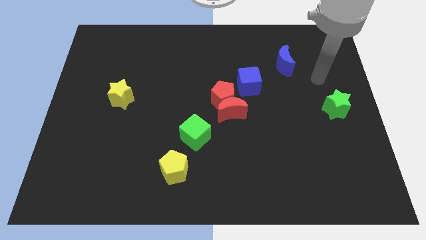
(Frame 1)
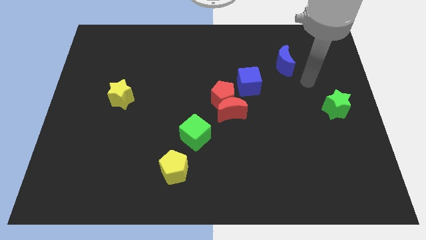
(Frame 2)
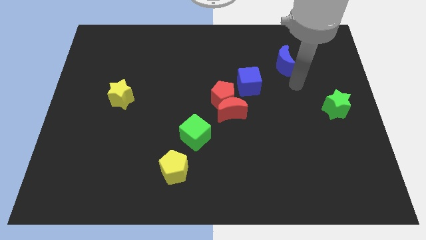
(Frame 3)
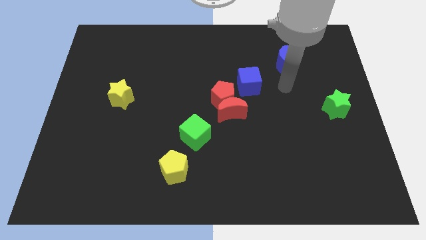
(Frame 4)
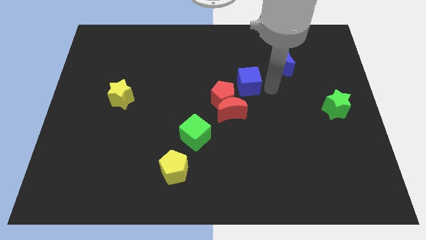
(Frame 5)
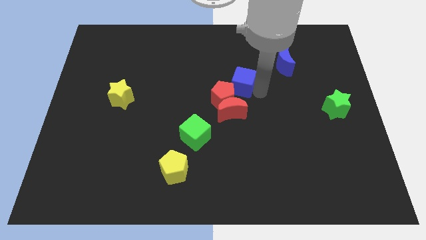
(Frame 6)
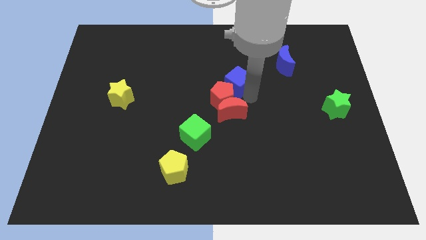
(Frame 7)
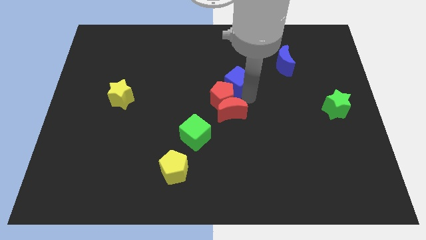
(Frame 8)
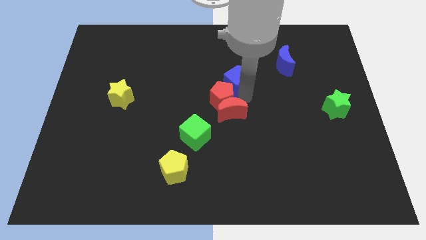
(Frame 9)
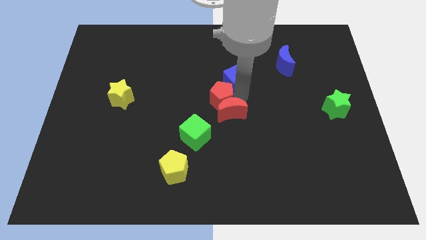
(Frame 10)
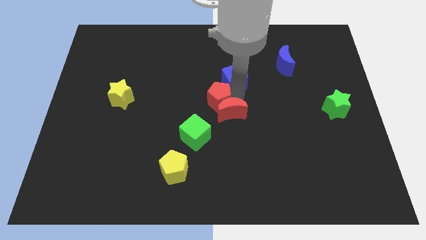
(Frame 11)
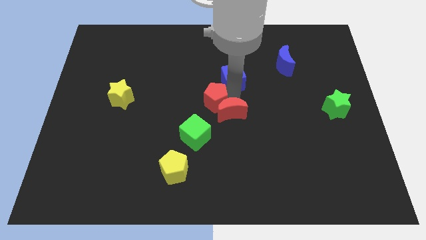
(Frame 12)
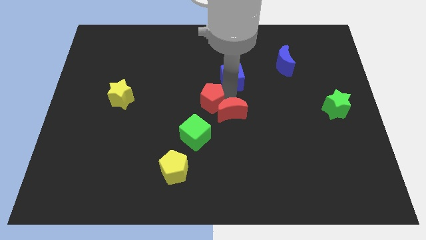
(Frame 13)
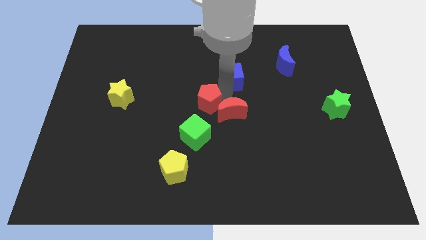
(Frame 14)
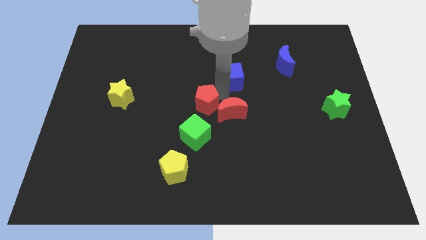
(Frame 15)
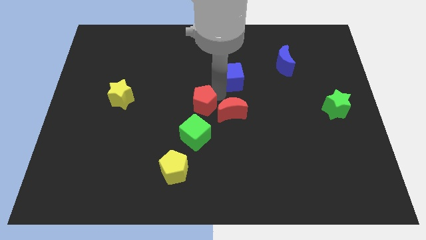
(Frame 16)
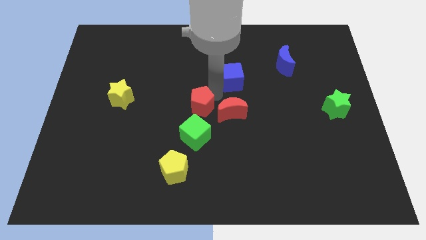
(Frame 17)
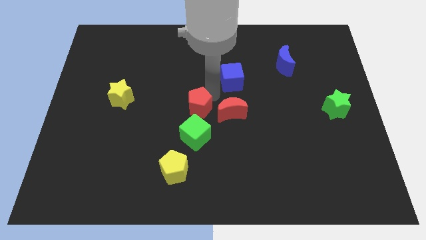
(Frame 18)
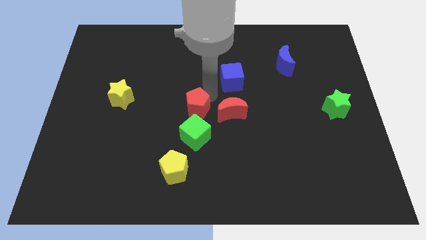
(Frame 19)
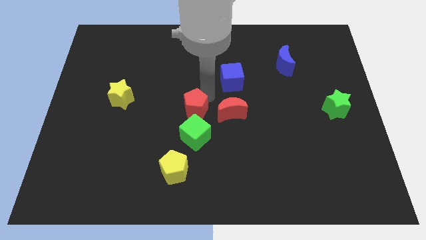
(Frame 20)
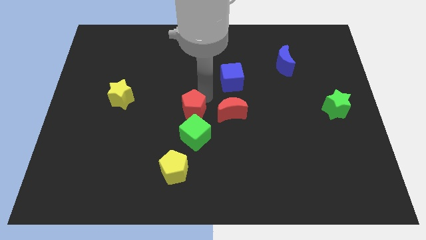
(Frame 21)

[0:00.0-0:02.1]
pull the red pentagon apart from the red moon and blue cube

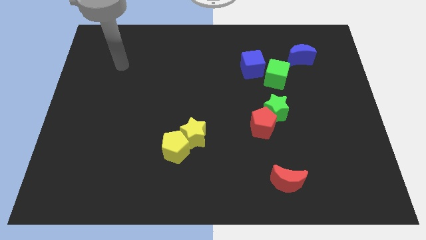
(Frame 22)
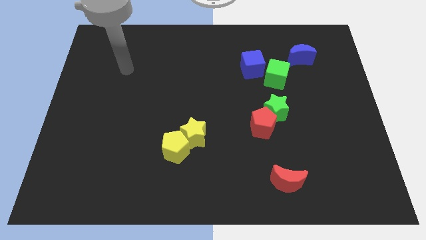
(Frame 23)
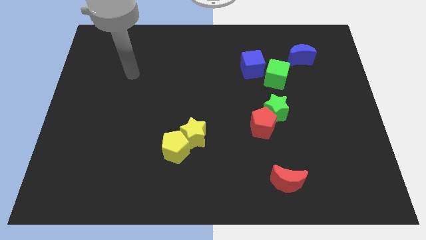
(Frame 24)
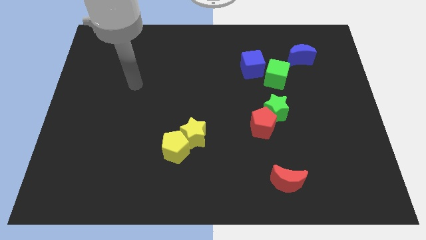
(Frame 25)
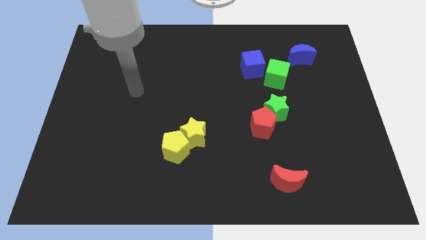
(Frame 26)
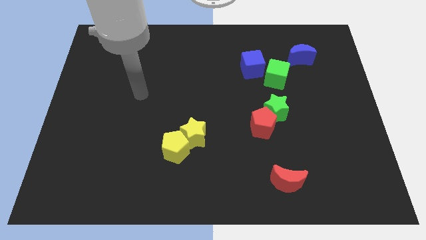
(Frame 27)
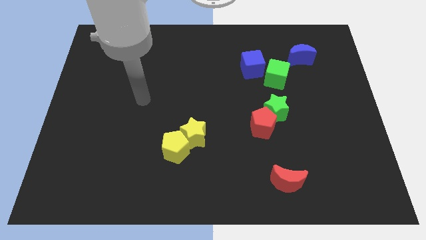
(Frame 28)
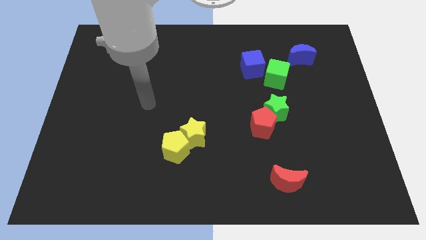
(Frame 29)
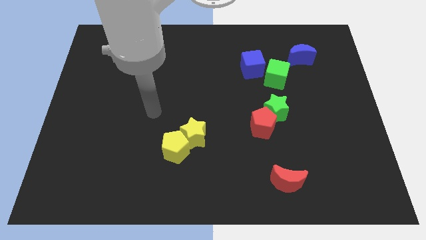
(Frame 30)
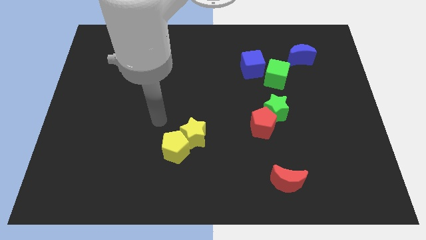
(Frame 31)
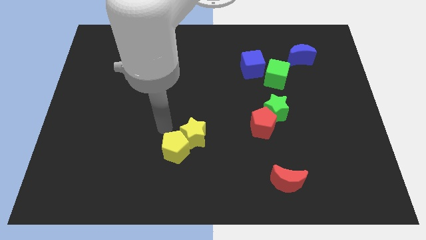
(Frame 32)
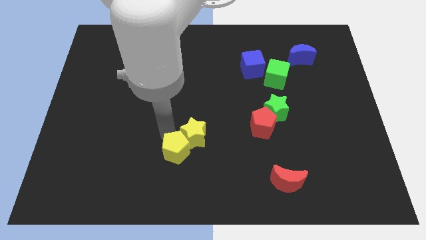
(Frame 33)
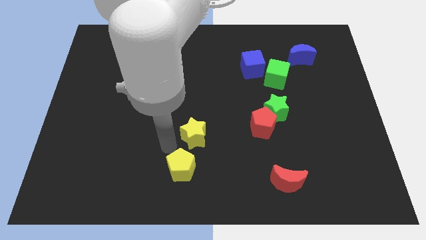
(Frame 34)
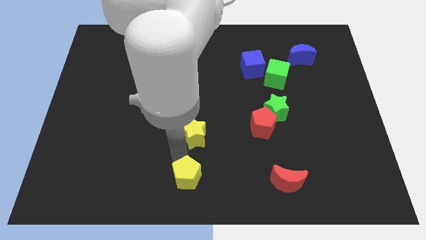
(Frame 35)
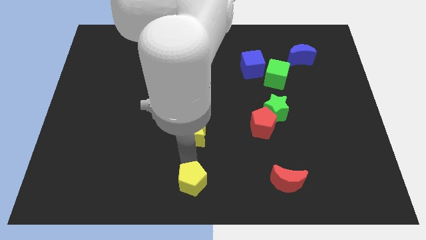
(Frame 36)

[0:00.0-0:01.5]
move the yellow star away from the yellow pentagon

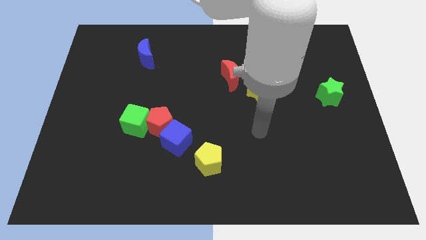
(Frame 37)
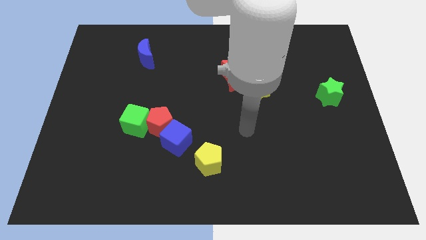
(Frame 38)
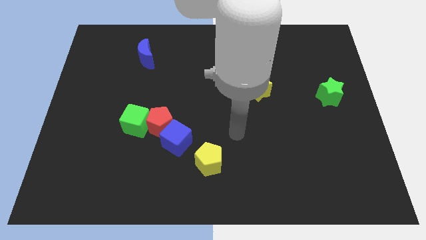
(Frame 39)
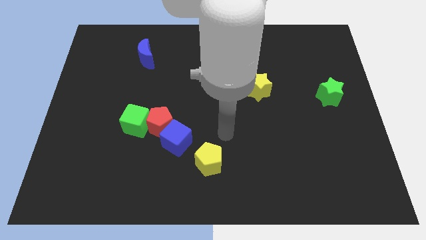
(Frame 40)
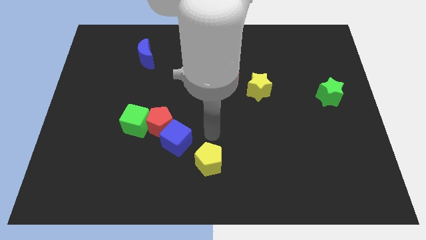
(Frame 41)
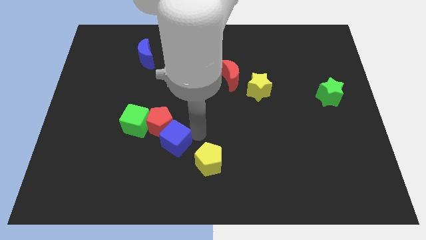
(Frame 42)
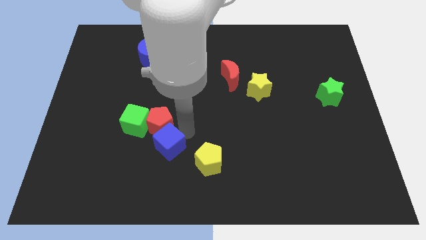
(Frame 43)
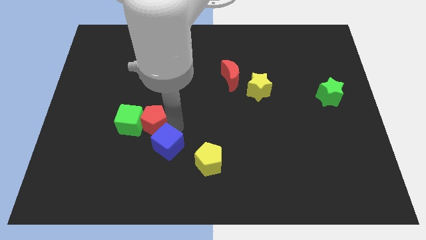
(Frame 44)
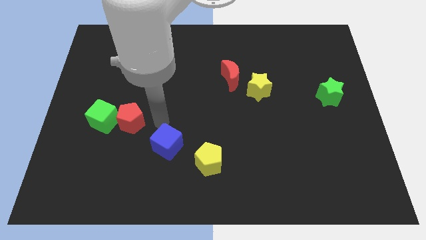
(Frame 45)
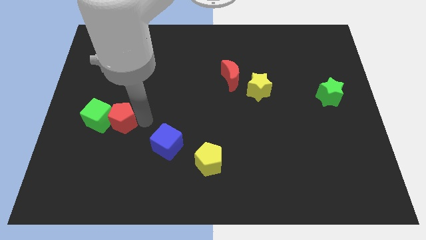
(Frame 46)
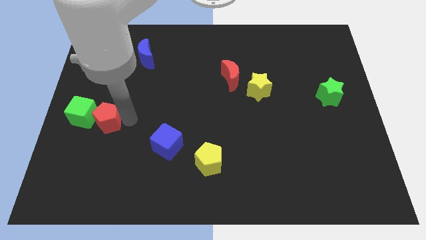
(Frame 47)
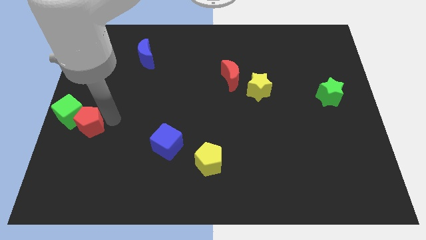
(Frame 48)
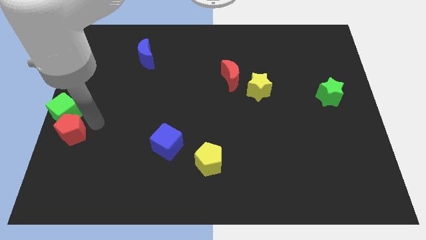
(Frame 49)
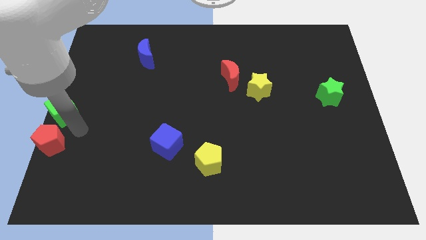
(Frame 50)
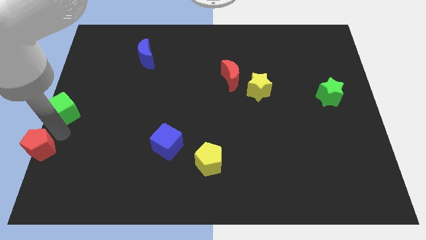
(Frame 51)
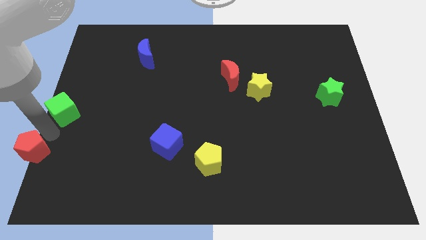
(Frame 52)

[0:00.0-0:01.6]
pull the green cube apart from the red pentagon

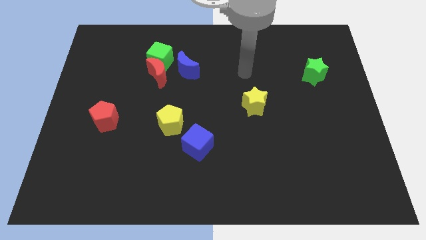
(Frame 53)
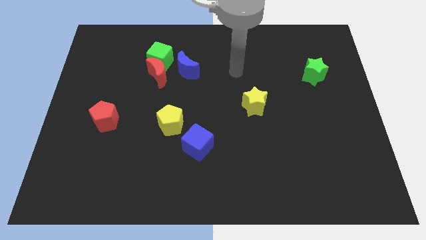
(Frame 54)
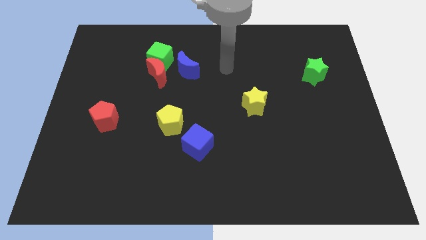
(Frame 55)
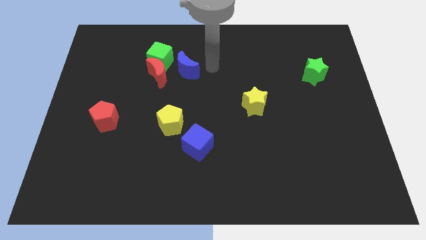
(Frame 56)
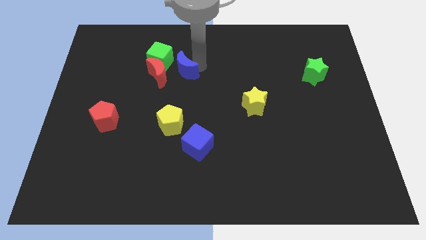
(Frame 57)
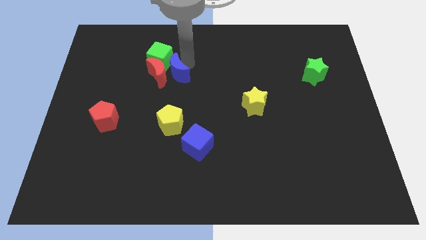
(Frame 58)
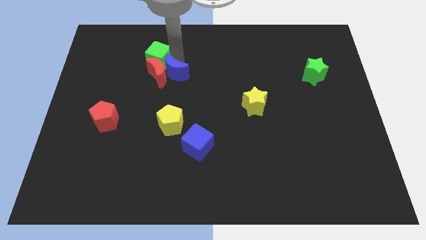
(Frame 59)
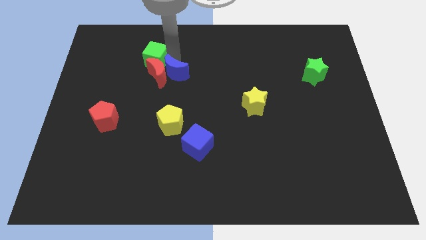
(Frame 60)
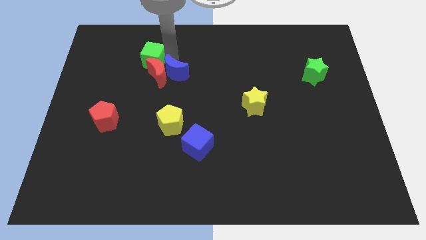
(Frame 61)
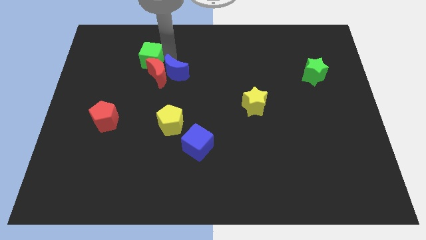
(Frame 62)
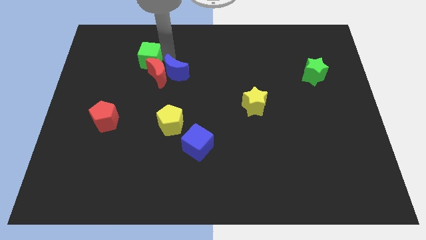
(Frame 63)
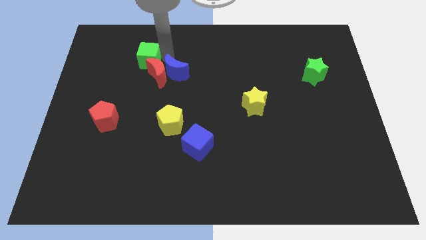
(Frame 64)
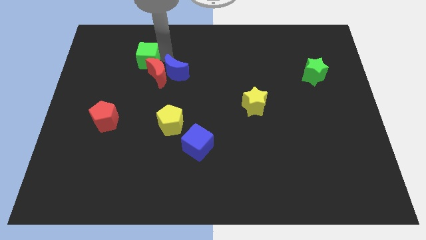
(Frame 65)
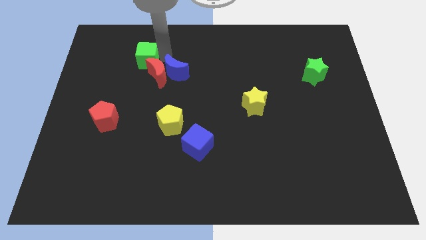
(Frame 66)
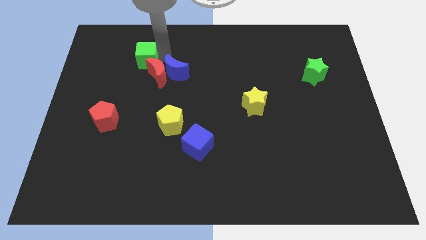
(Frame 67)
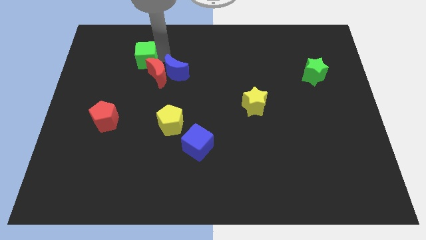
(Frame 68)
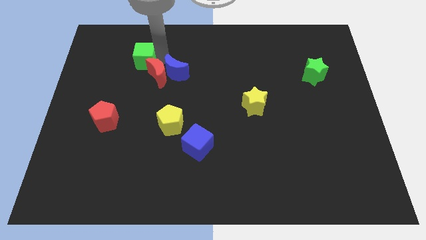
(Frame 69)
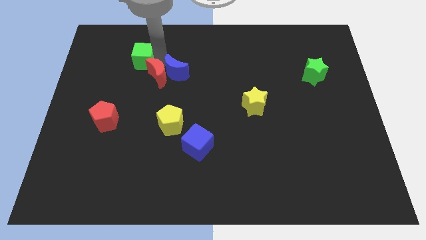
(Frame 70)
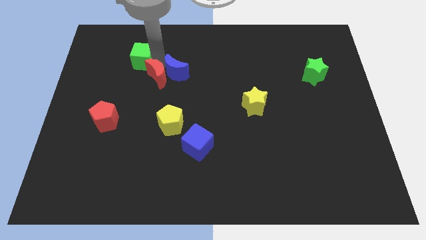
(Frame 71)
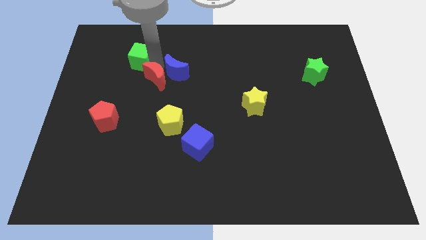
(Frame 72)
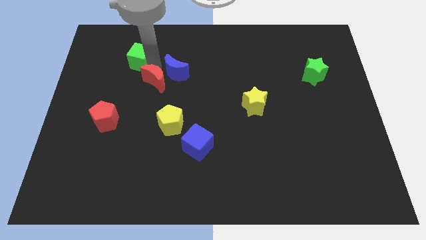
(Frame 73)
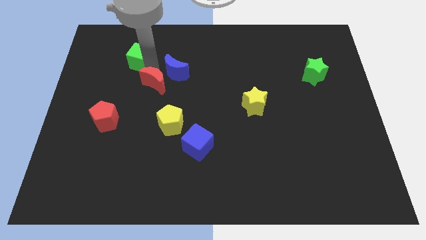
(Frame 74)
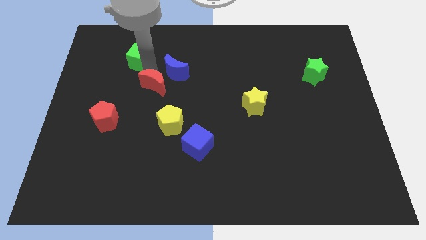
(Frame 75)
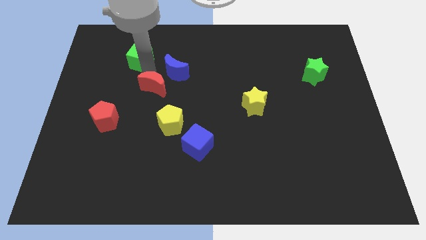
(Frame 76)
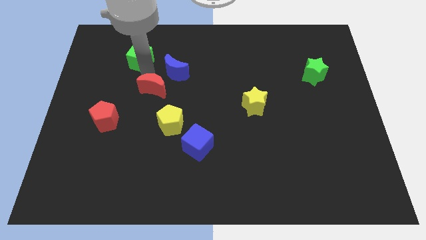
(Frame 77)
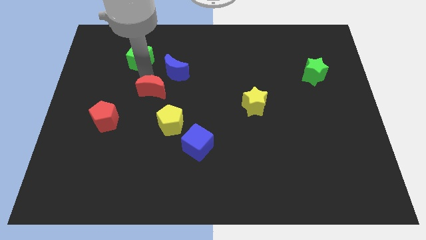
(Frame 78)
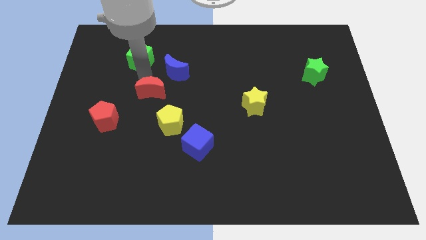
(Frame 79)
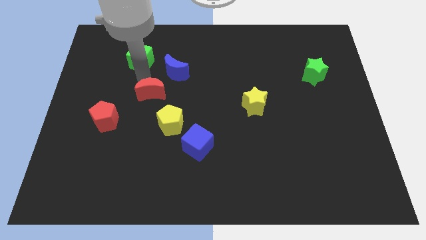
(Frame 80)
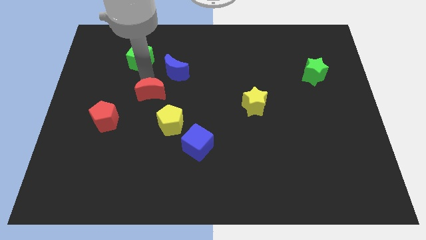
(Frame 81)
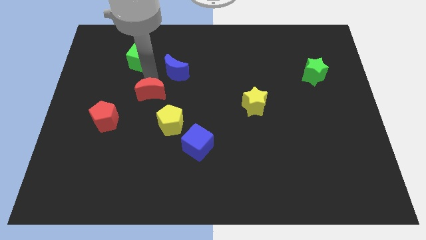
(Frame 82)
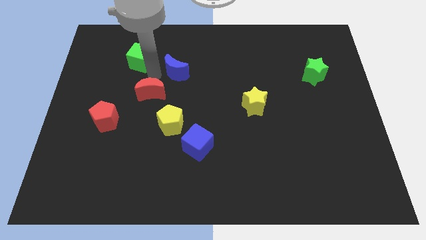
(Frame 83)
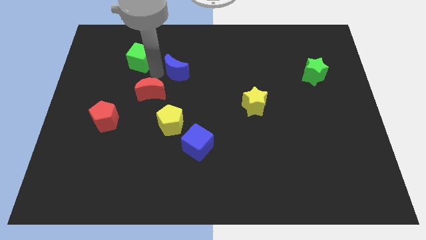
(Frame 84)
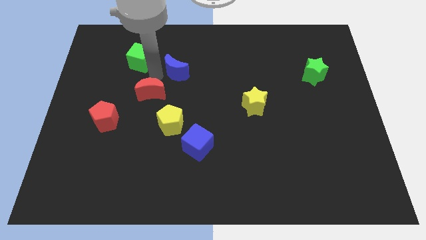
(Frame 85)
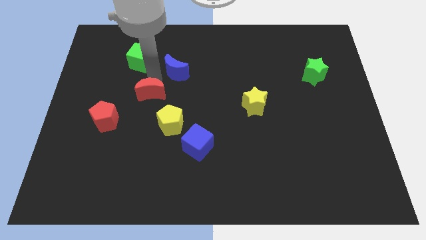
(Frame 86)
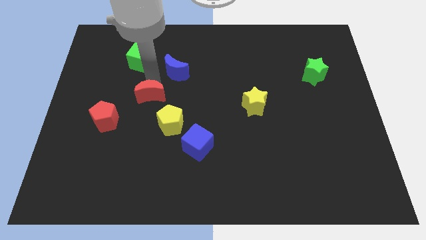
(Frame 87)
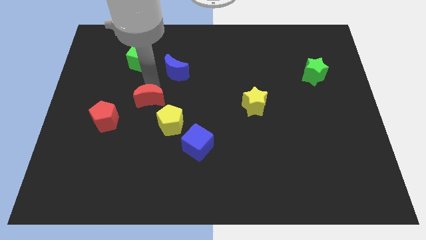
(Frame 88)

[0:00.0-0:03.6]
pull the red moon apart from the green cube and blue moon

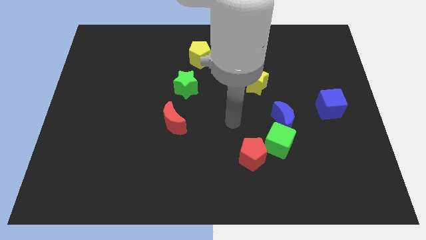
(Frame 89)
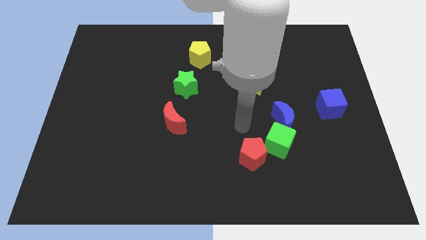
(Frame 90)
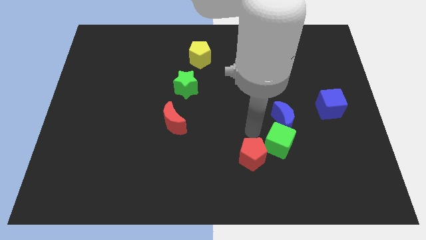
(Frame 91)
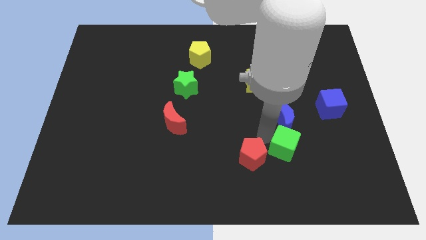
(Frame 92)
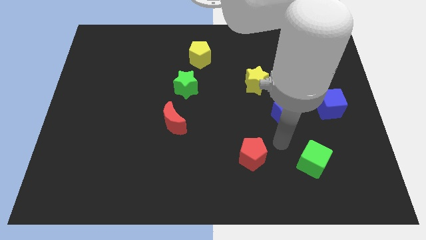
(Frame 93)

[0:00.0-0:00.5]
separate the blue moon from the green cube

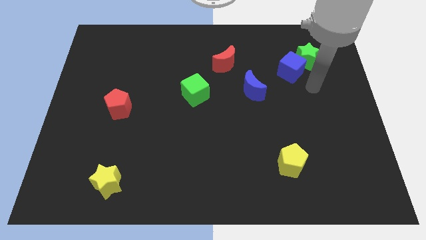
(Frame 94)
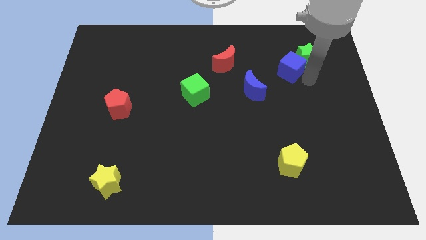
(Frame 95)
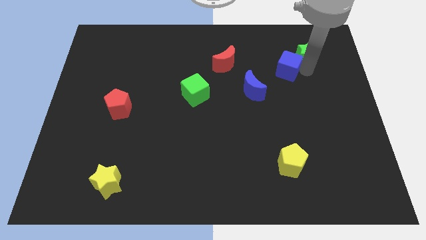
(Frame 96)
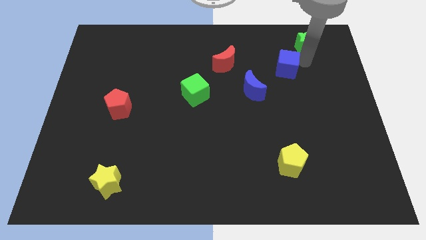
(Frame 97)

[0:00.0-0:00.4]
separate the blue cube from the green star
